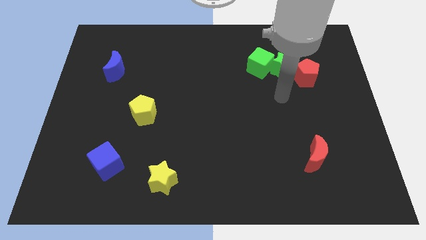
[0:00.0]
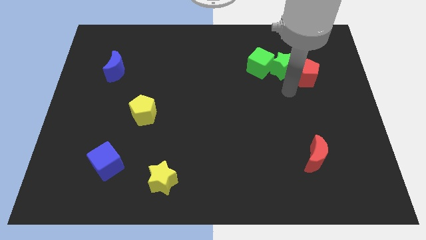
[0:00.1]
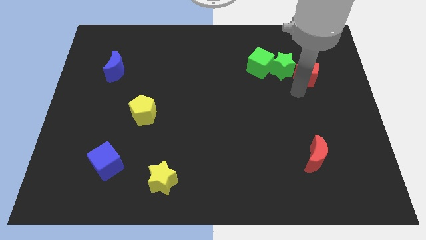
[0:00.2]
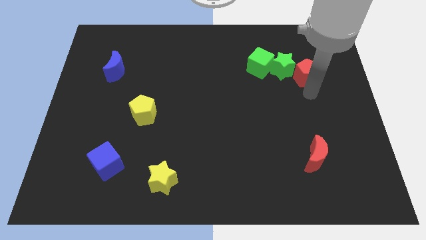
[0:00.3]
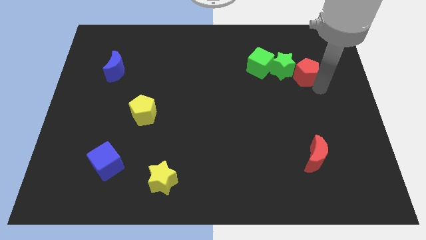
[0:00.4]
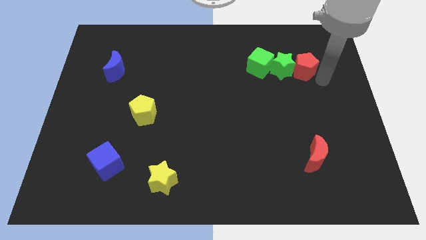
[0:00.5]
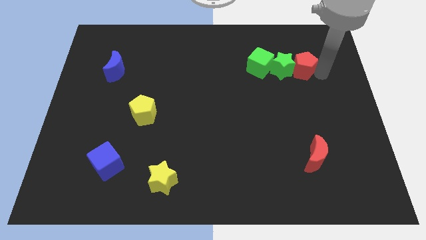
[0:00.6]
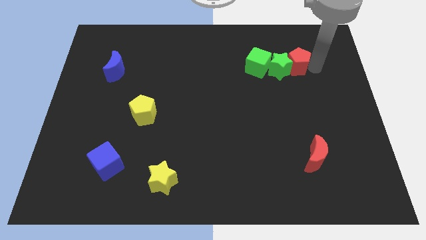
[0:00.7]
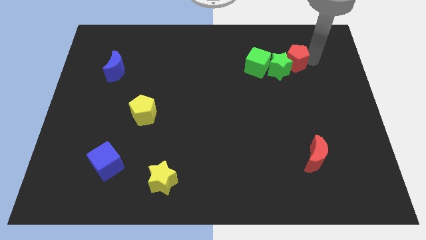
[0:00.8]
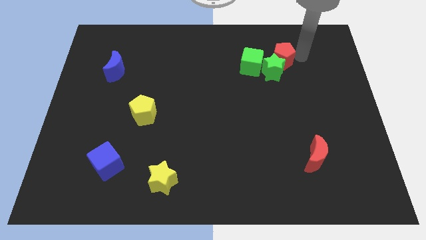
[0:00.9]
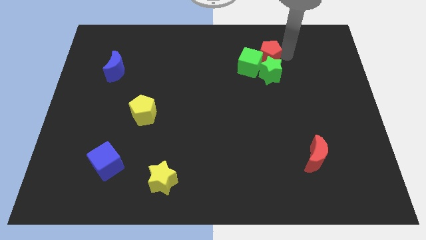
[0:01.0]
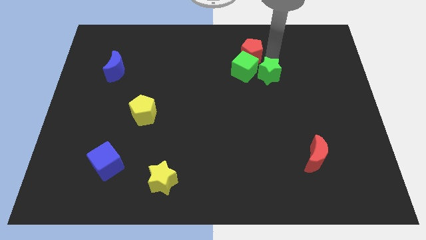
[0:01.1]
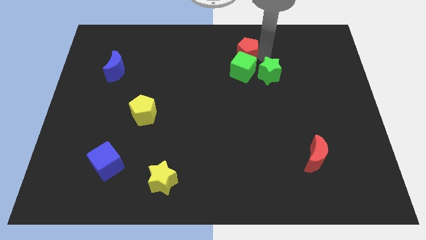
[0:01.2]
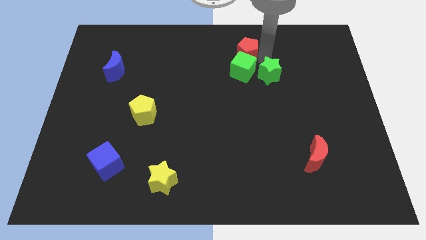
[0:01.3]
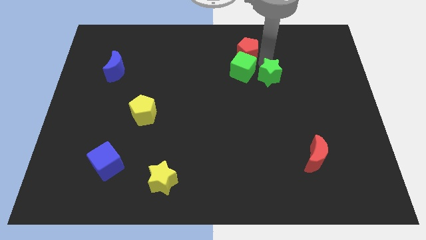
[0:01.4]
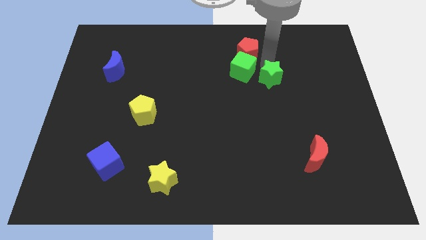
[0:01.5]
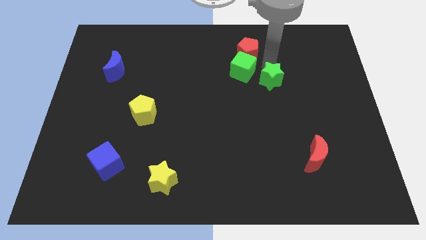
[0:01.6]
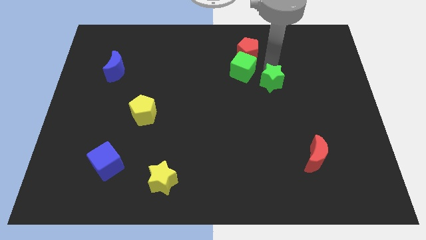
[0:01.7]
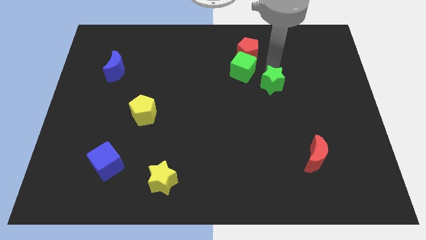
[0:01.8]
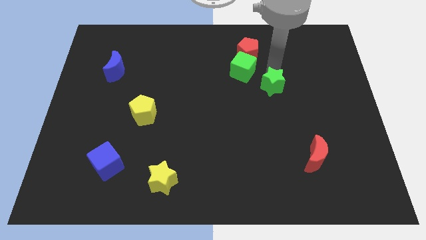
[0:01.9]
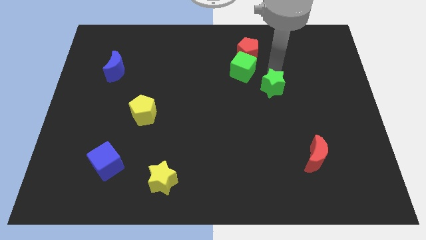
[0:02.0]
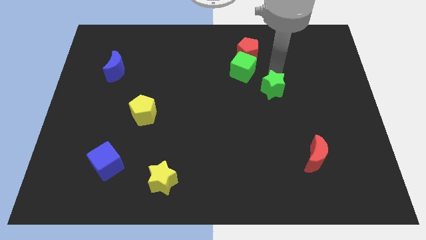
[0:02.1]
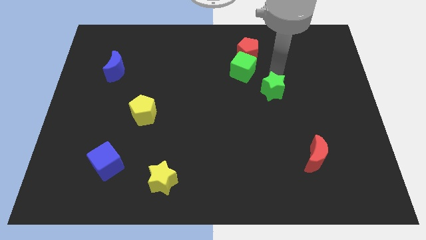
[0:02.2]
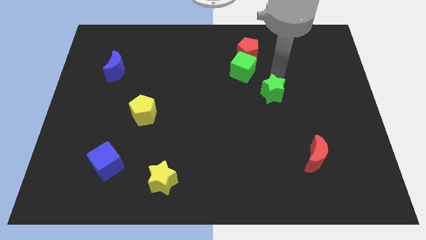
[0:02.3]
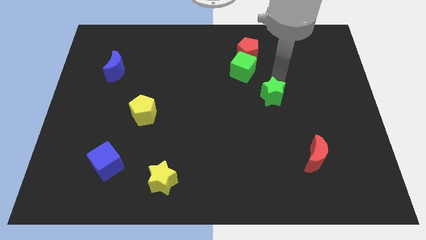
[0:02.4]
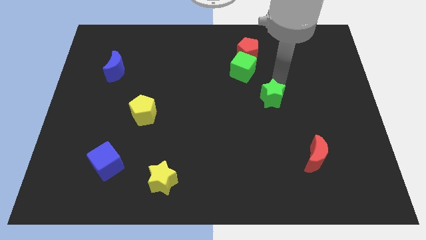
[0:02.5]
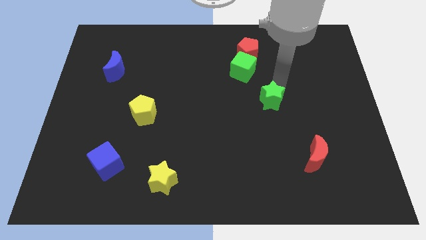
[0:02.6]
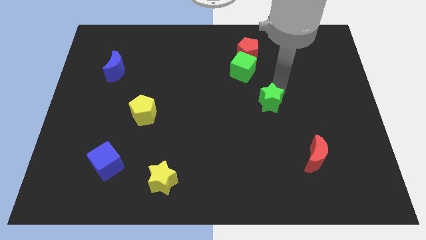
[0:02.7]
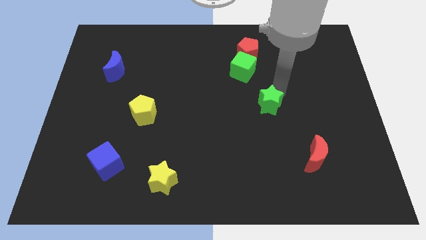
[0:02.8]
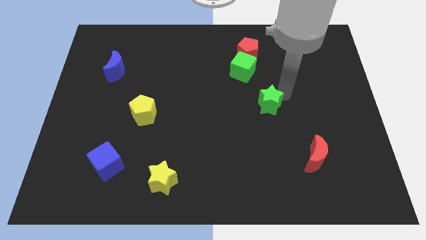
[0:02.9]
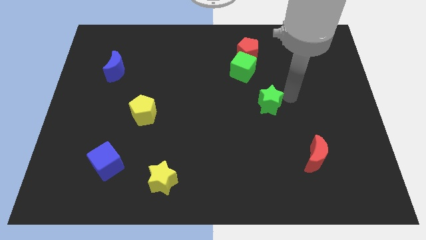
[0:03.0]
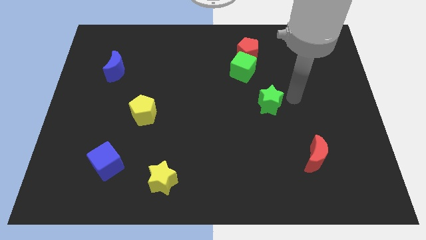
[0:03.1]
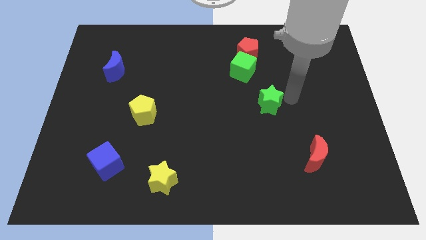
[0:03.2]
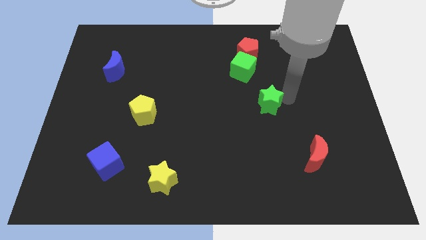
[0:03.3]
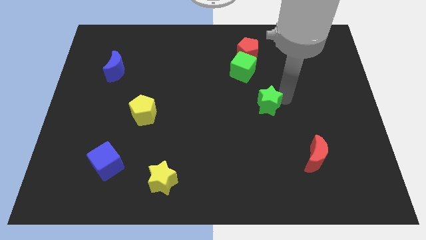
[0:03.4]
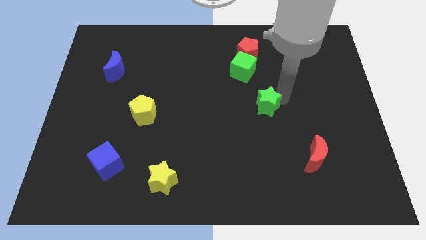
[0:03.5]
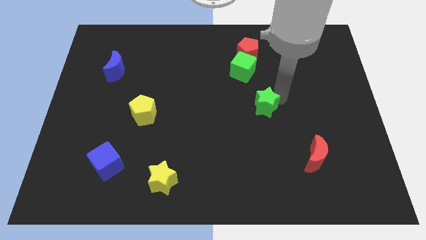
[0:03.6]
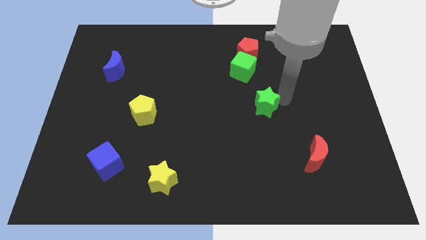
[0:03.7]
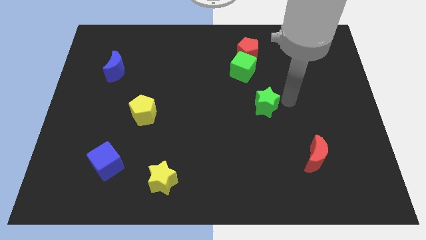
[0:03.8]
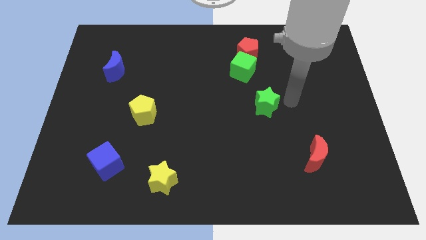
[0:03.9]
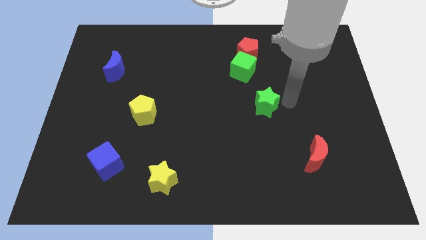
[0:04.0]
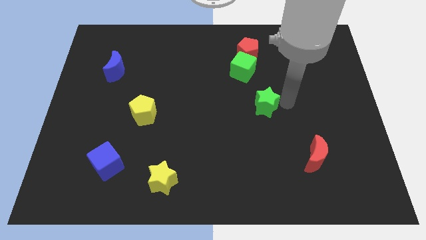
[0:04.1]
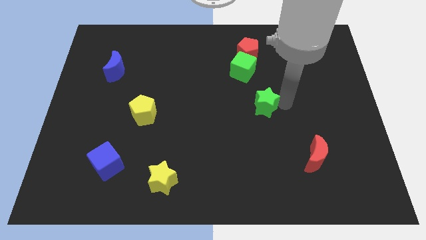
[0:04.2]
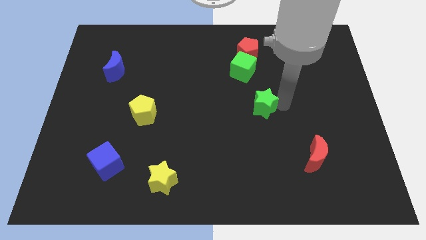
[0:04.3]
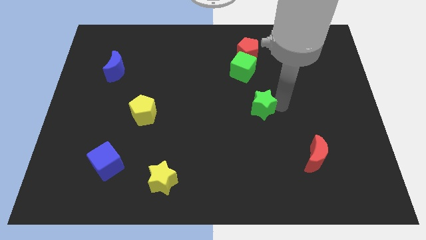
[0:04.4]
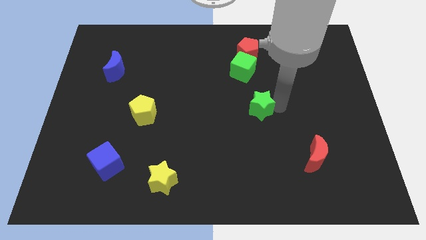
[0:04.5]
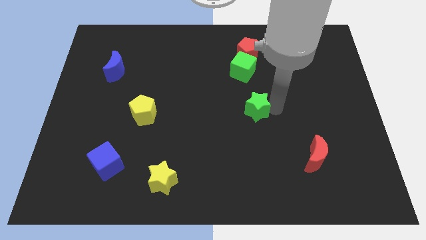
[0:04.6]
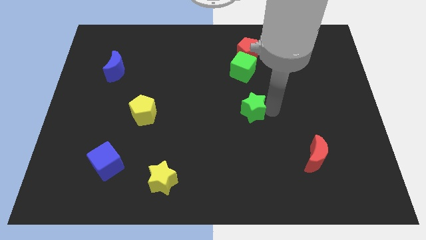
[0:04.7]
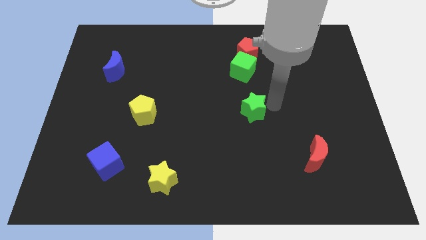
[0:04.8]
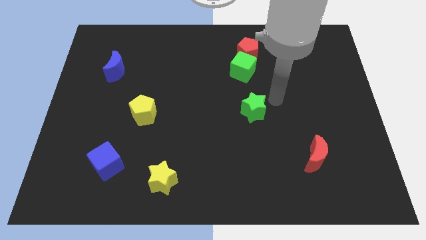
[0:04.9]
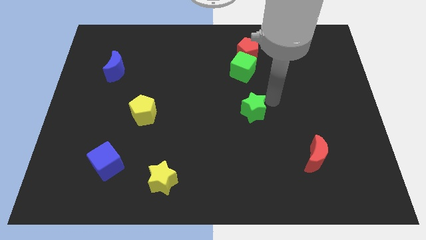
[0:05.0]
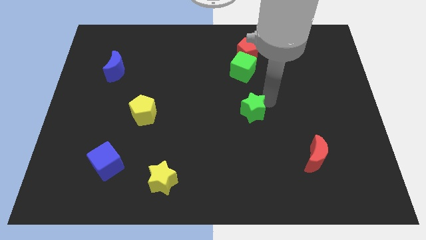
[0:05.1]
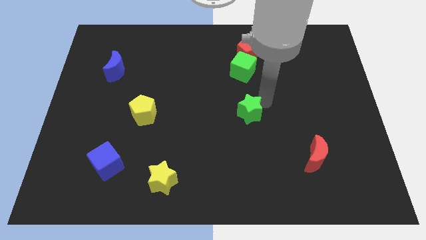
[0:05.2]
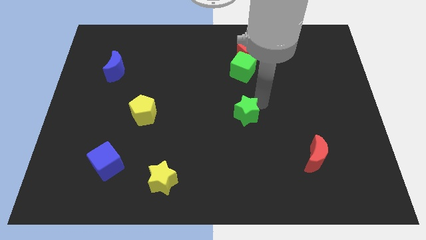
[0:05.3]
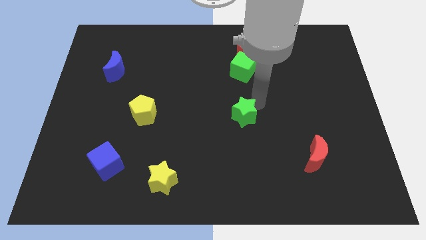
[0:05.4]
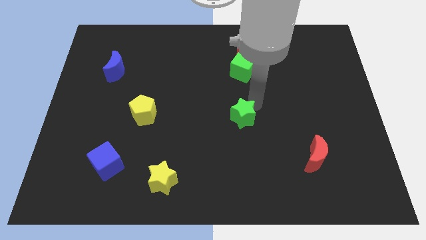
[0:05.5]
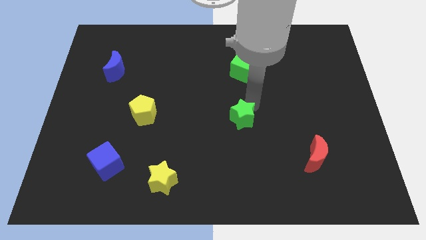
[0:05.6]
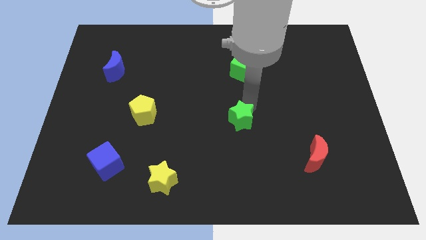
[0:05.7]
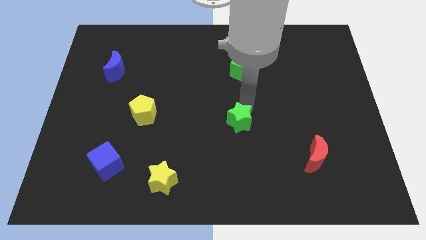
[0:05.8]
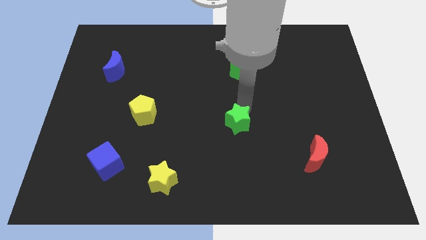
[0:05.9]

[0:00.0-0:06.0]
move the green star downwards and left

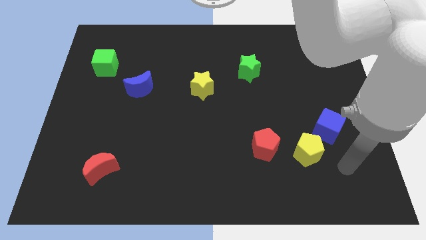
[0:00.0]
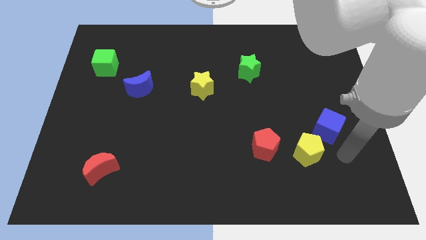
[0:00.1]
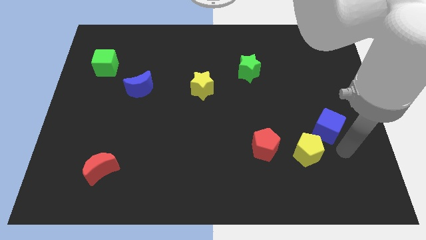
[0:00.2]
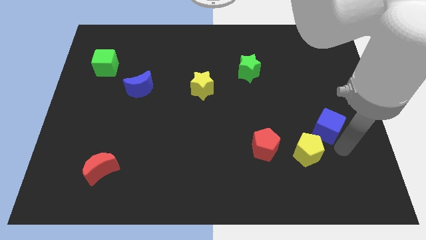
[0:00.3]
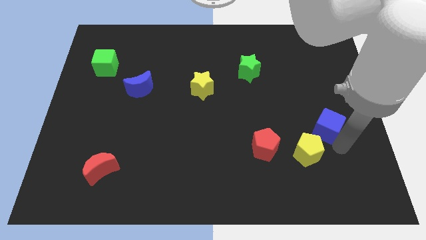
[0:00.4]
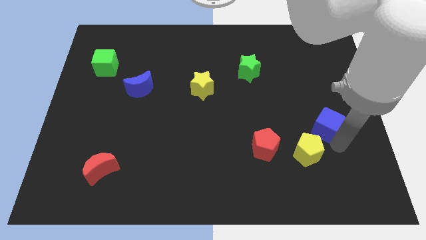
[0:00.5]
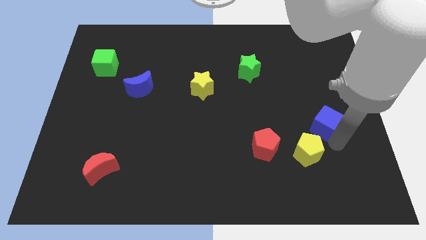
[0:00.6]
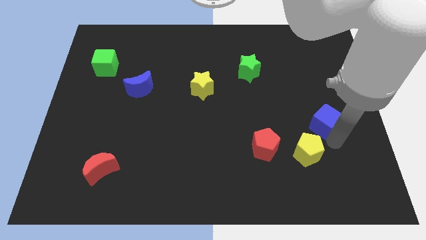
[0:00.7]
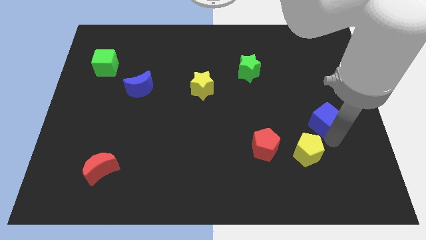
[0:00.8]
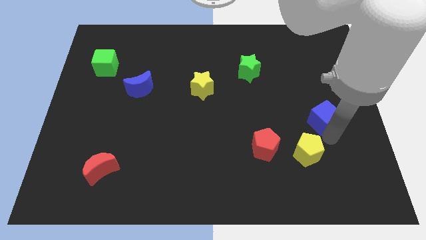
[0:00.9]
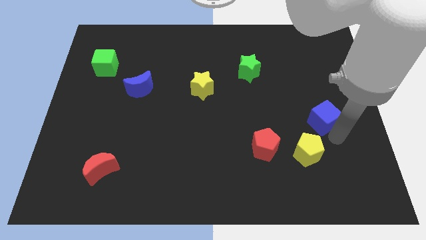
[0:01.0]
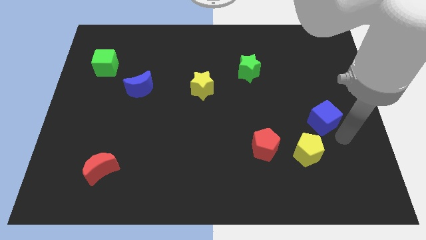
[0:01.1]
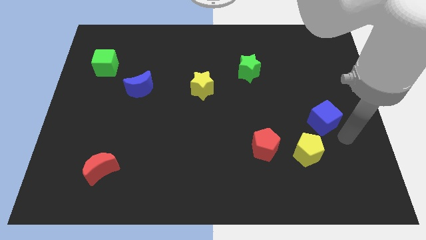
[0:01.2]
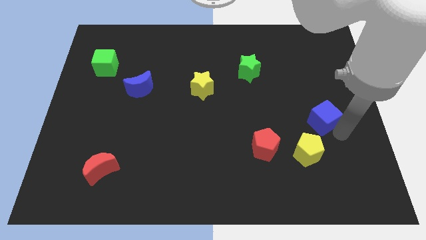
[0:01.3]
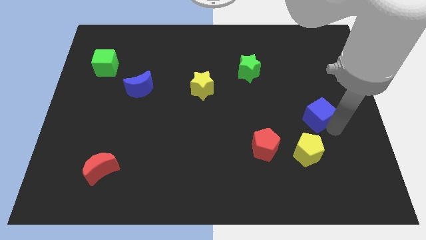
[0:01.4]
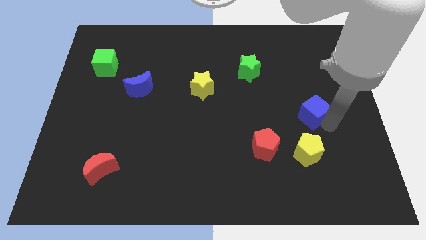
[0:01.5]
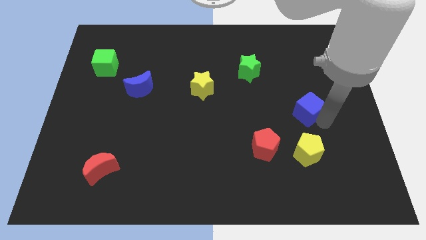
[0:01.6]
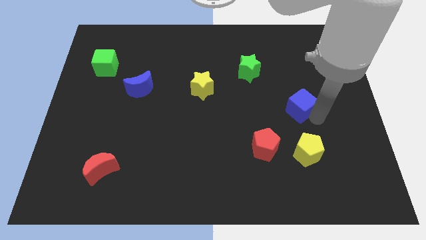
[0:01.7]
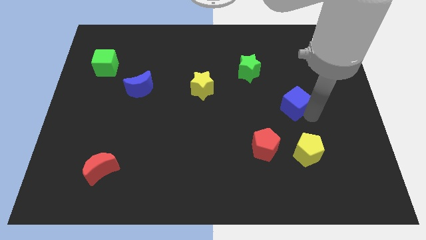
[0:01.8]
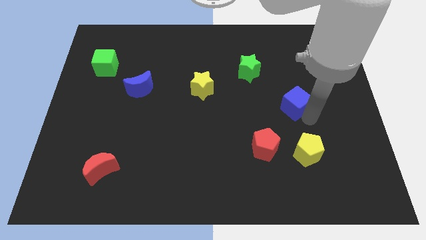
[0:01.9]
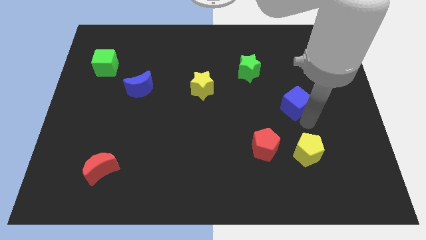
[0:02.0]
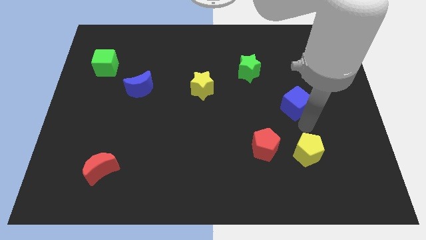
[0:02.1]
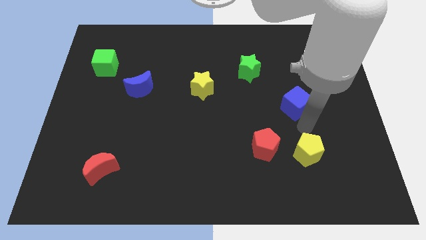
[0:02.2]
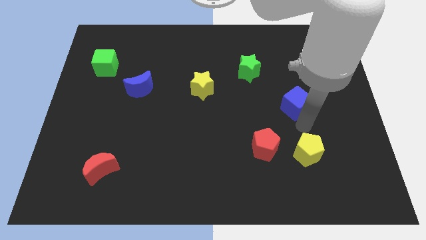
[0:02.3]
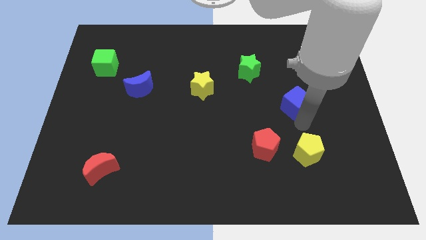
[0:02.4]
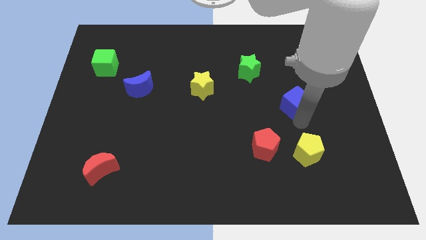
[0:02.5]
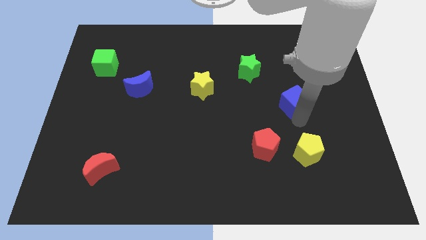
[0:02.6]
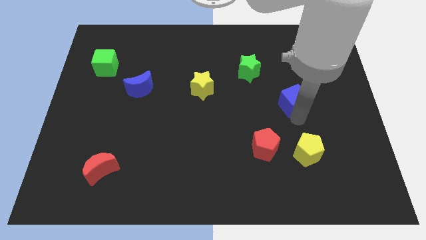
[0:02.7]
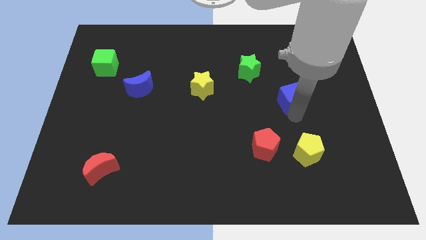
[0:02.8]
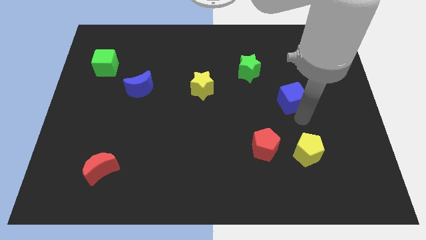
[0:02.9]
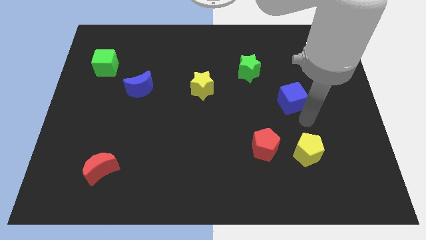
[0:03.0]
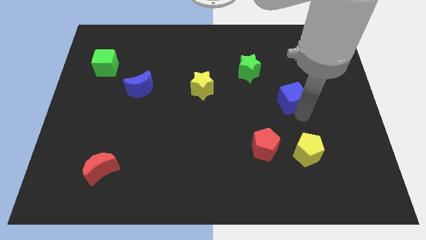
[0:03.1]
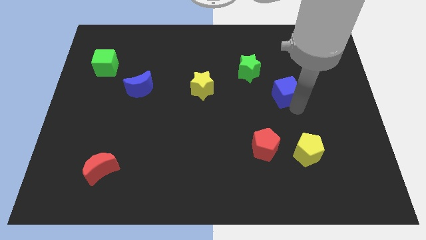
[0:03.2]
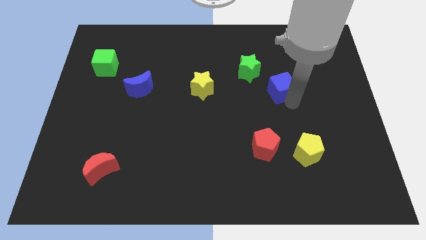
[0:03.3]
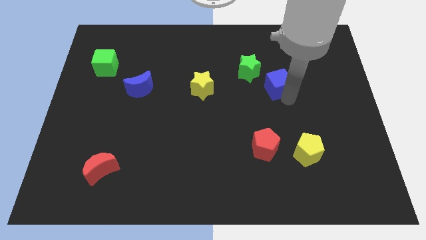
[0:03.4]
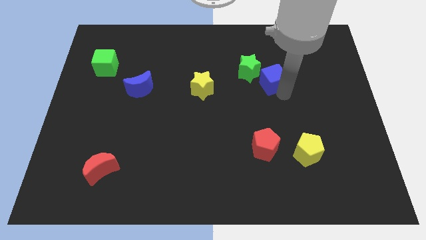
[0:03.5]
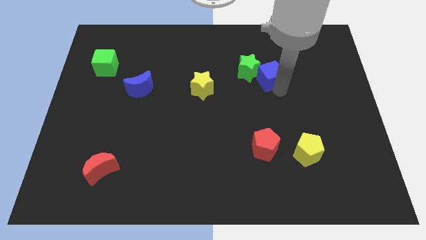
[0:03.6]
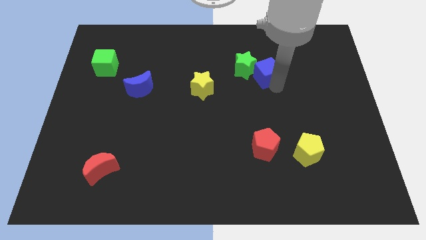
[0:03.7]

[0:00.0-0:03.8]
slide the blue cube upwards and to the left
